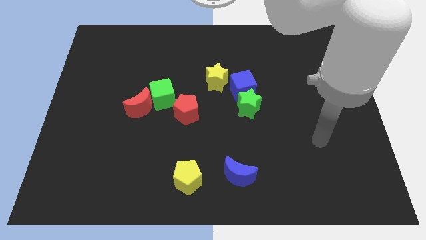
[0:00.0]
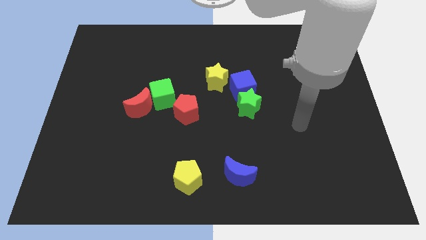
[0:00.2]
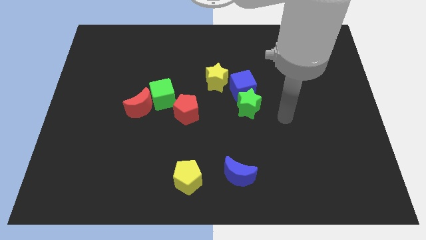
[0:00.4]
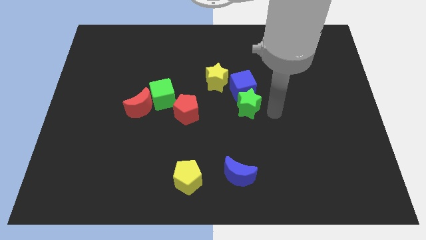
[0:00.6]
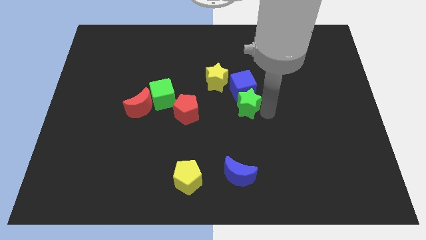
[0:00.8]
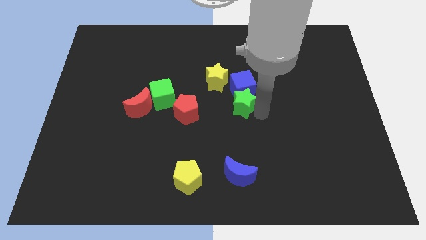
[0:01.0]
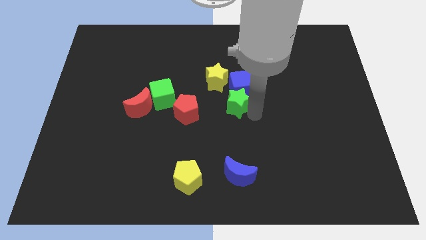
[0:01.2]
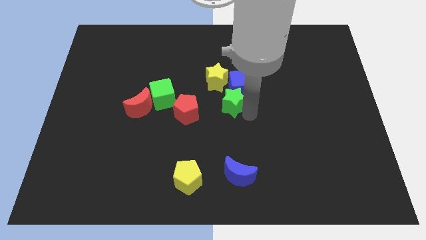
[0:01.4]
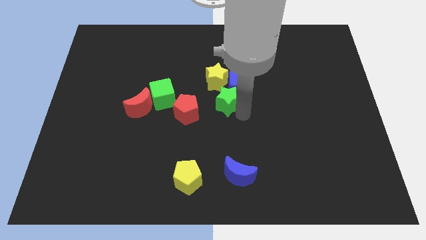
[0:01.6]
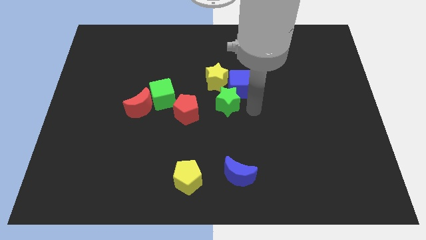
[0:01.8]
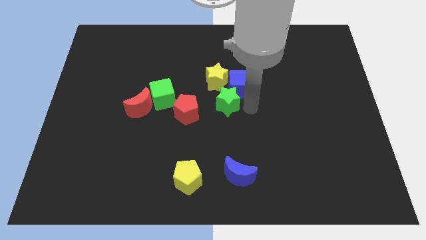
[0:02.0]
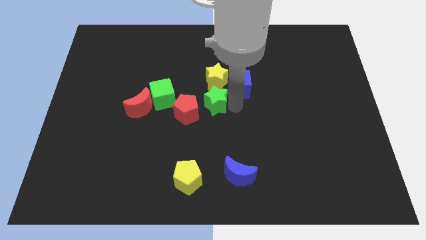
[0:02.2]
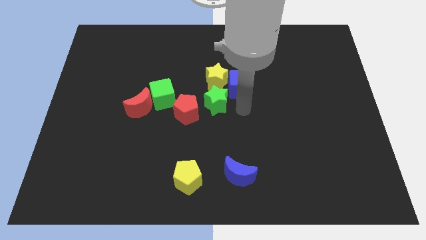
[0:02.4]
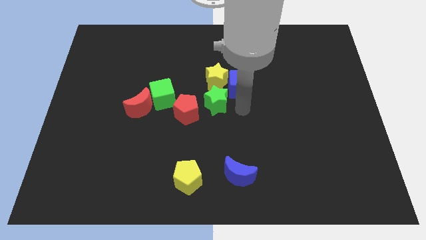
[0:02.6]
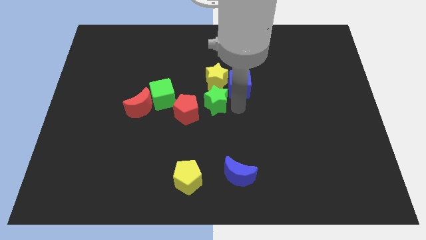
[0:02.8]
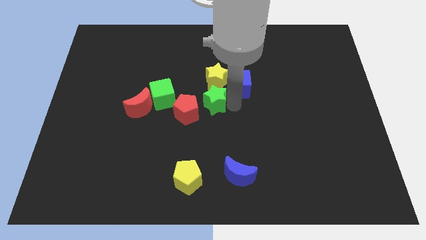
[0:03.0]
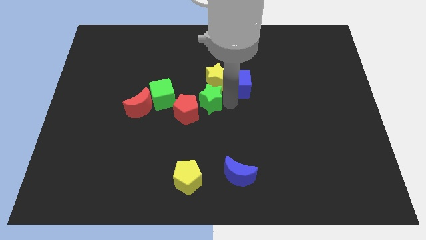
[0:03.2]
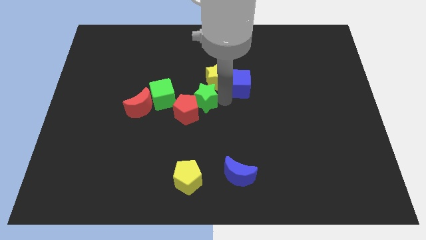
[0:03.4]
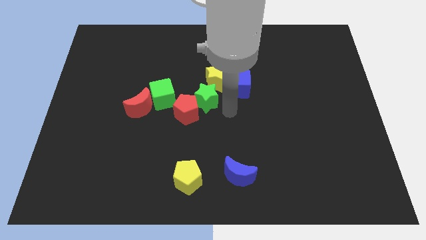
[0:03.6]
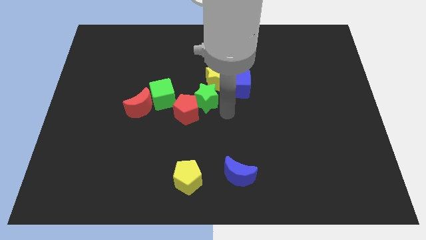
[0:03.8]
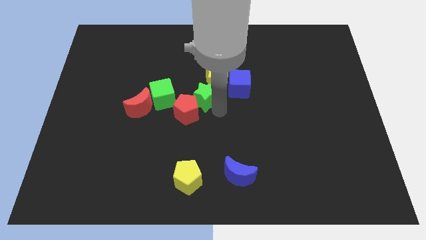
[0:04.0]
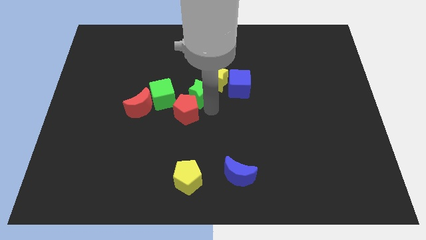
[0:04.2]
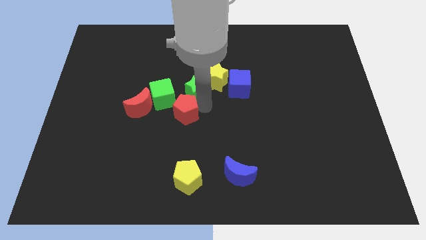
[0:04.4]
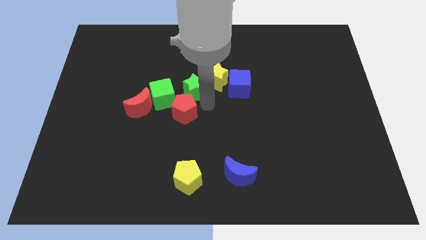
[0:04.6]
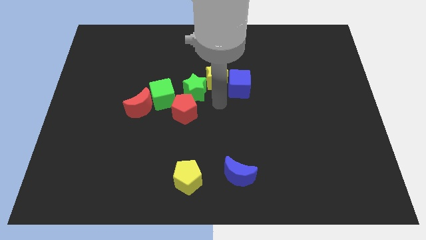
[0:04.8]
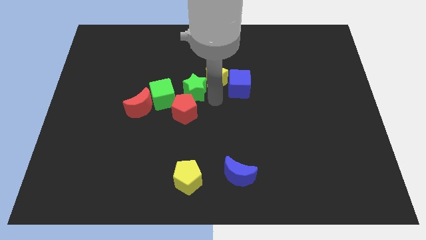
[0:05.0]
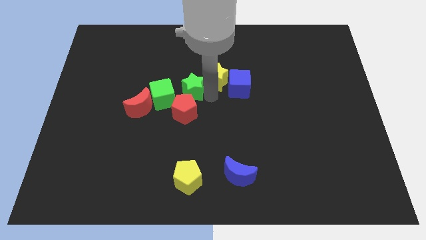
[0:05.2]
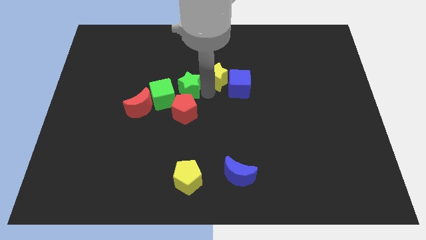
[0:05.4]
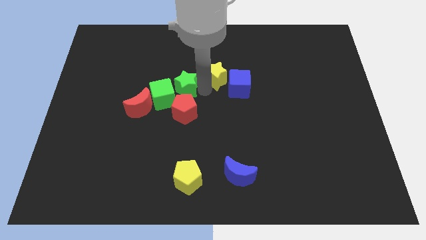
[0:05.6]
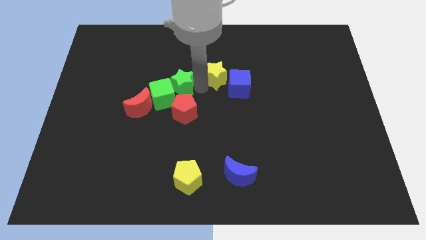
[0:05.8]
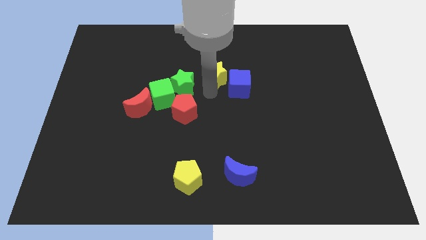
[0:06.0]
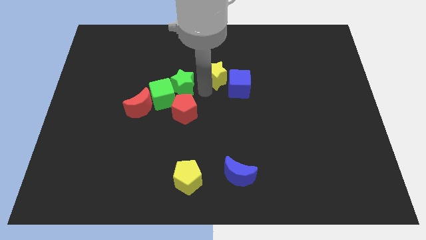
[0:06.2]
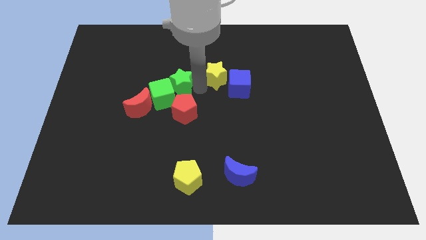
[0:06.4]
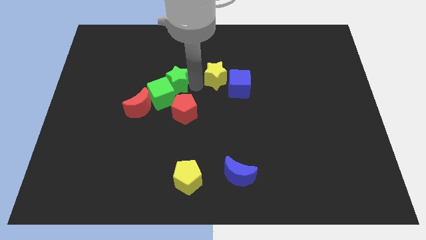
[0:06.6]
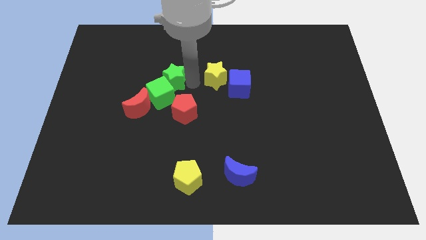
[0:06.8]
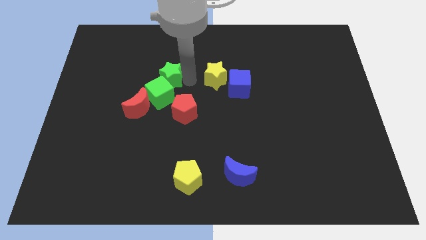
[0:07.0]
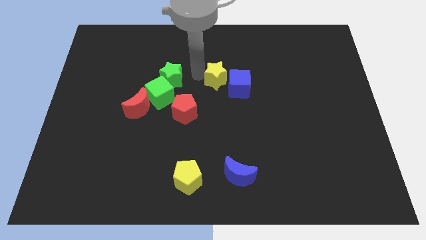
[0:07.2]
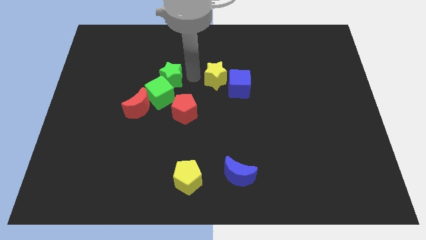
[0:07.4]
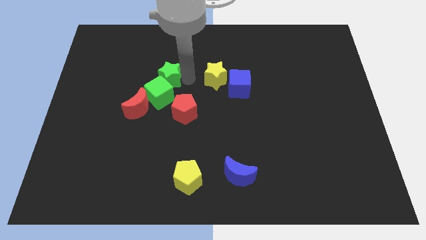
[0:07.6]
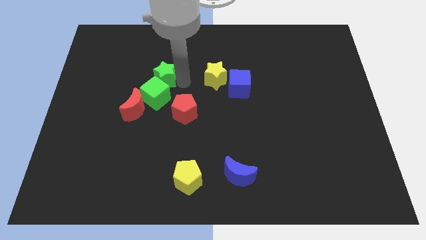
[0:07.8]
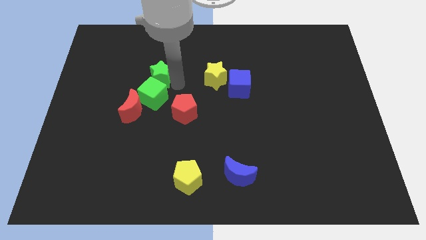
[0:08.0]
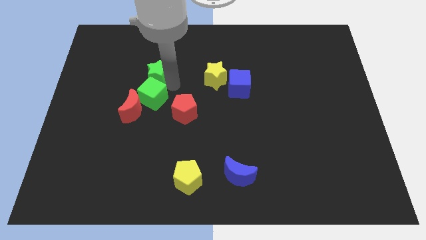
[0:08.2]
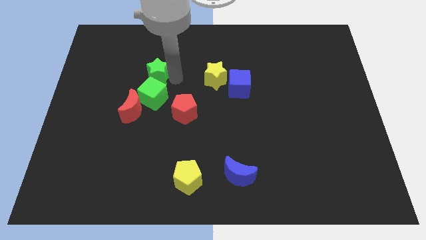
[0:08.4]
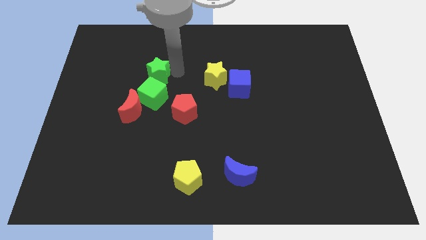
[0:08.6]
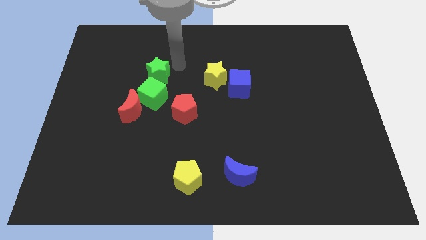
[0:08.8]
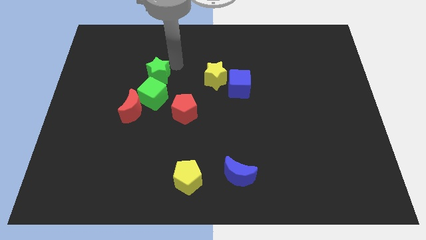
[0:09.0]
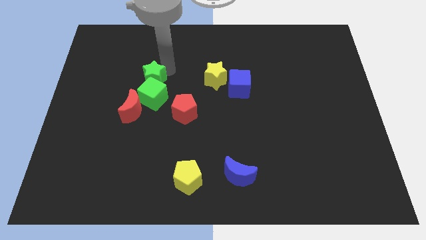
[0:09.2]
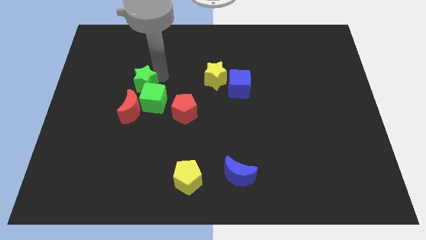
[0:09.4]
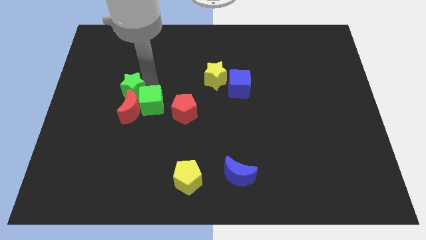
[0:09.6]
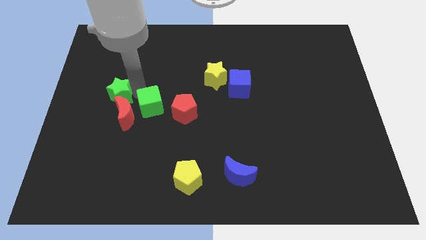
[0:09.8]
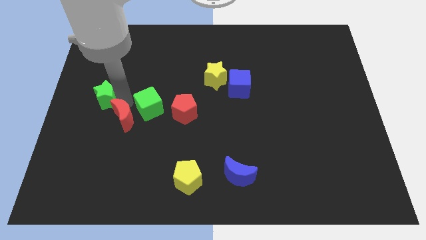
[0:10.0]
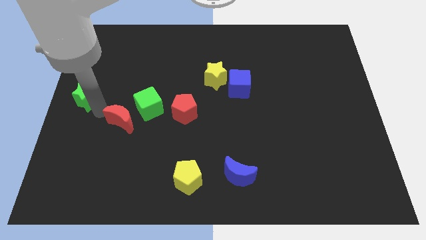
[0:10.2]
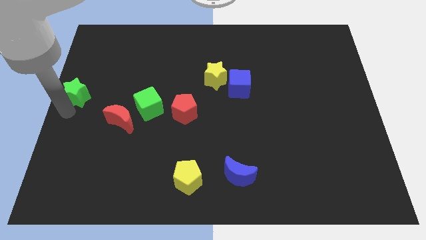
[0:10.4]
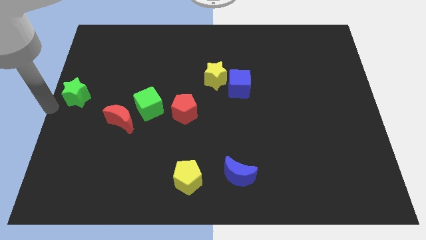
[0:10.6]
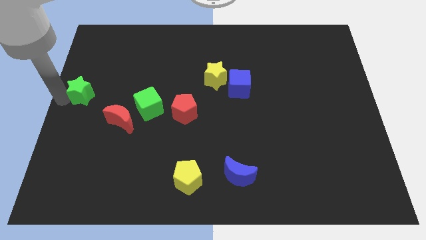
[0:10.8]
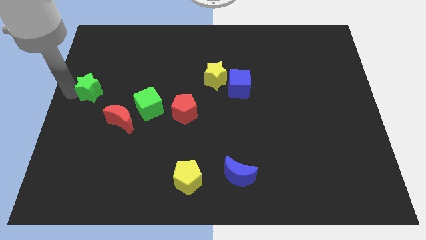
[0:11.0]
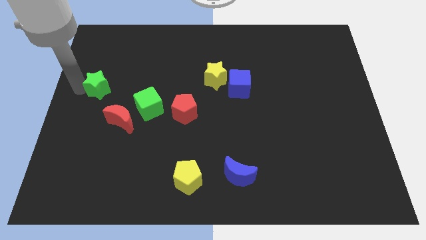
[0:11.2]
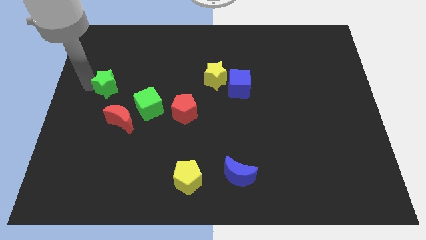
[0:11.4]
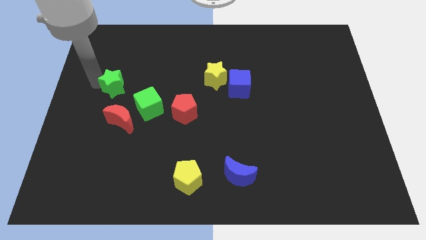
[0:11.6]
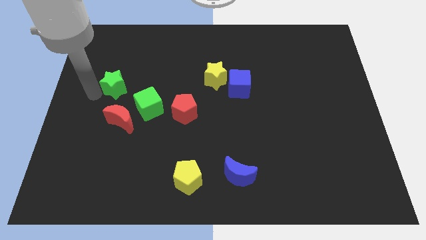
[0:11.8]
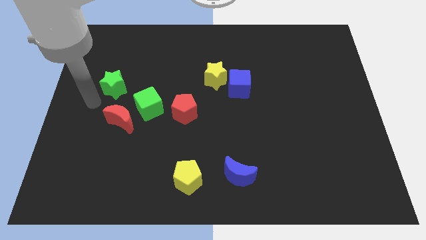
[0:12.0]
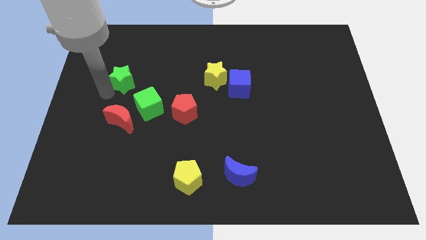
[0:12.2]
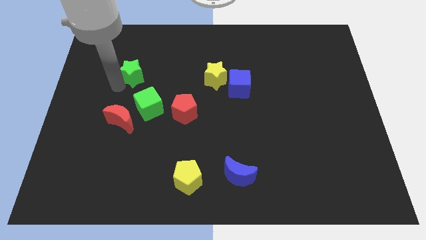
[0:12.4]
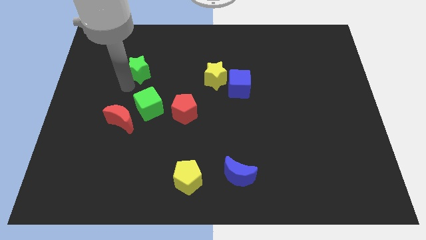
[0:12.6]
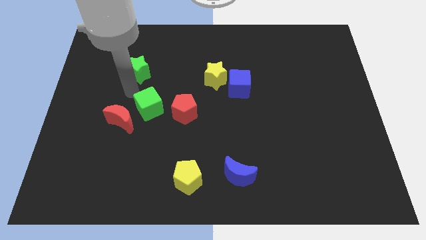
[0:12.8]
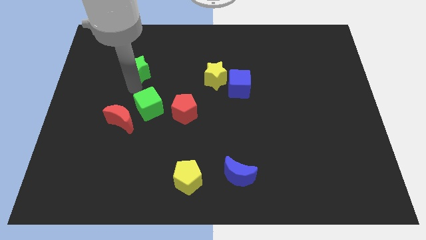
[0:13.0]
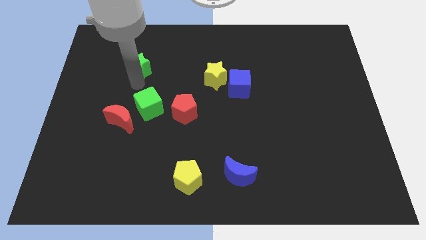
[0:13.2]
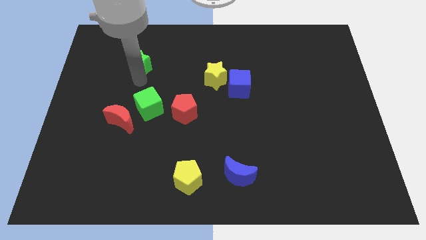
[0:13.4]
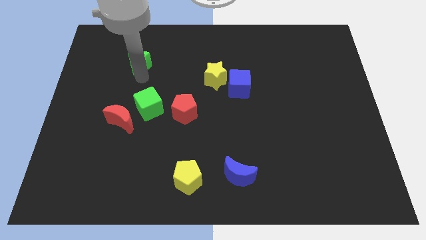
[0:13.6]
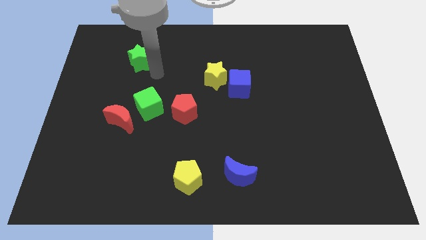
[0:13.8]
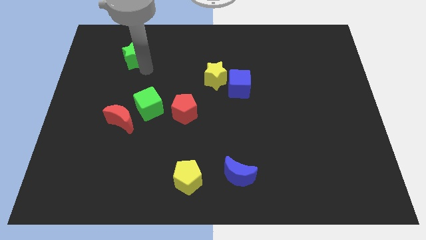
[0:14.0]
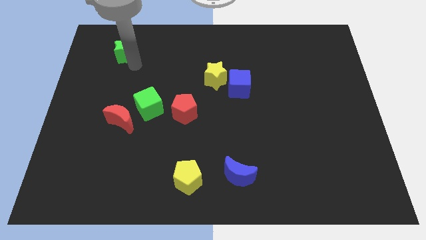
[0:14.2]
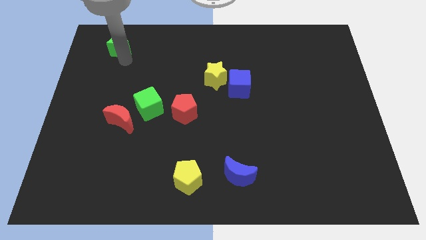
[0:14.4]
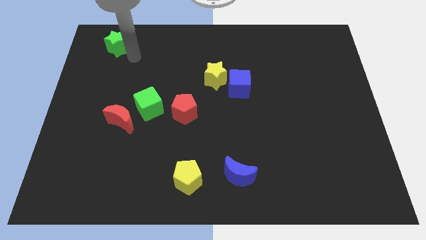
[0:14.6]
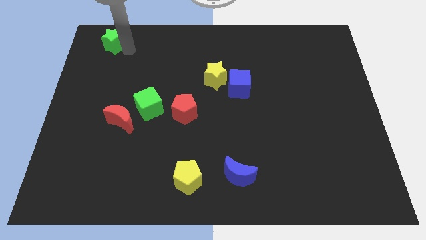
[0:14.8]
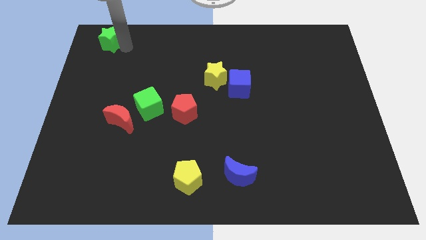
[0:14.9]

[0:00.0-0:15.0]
put the green star to the top left
